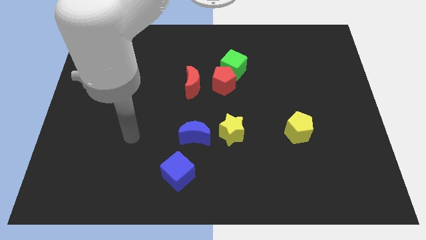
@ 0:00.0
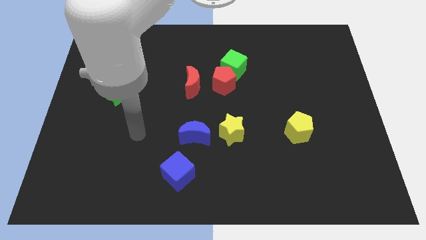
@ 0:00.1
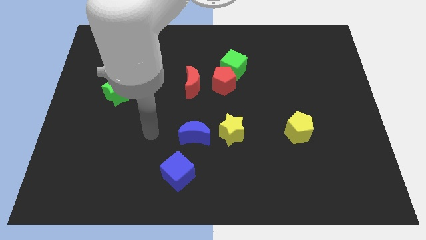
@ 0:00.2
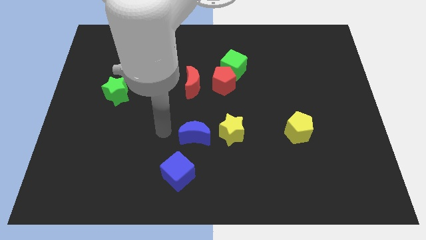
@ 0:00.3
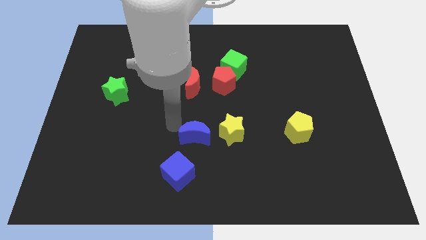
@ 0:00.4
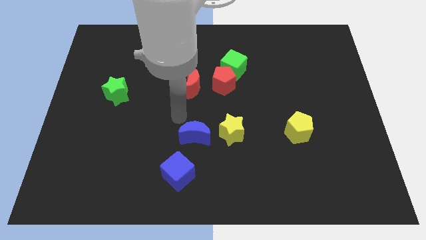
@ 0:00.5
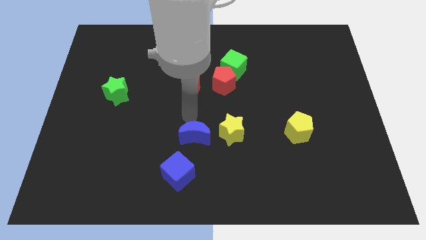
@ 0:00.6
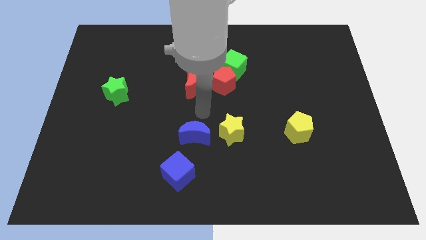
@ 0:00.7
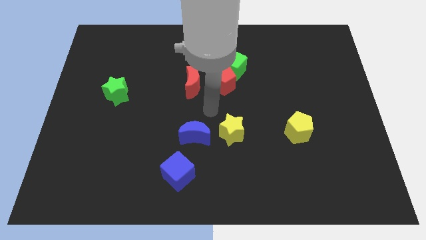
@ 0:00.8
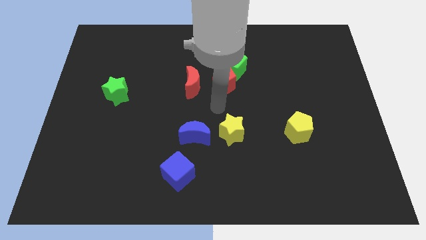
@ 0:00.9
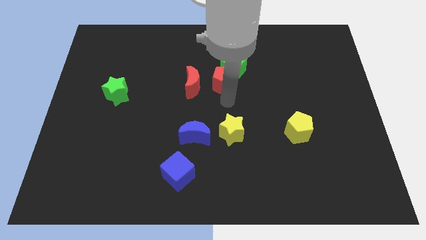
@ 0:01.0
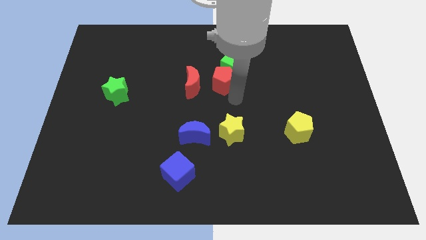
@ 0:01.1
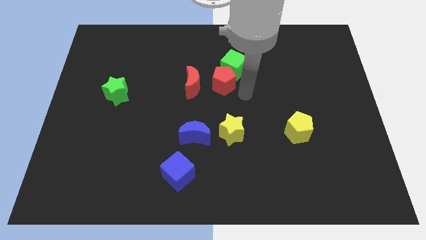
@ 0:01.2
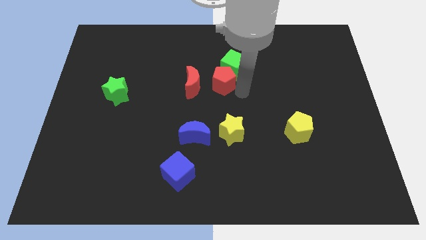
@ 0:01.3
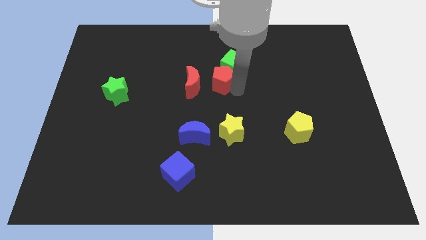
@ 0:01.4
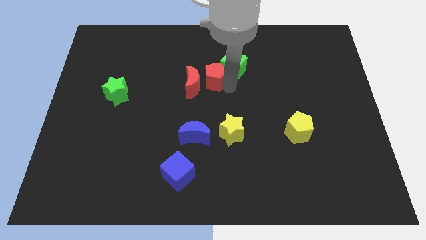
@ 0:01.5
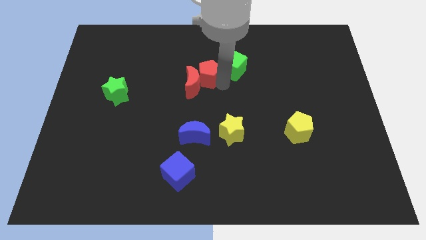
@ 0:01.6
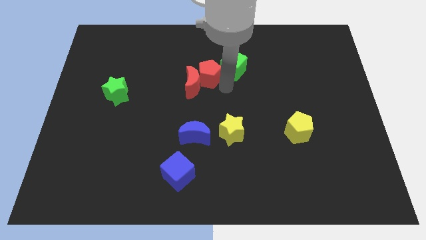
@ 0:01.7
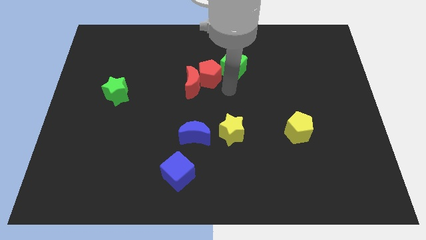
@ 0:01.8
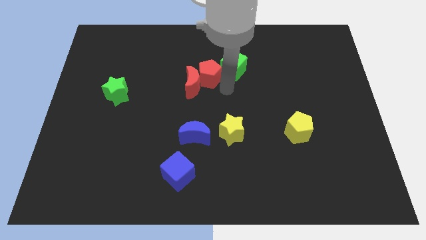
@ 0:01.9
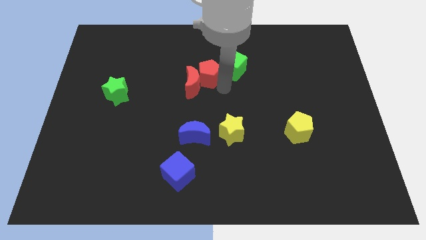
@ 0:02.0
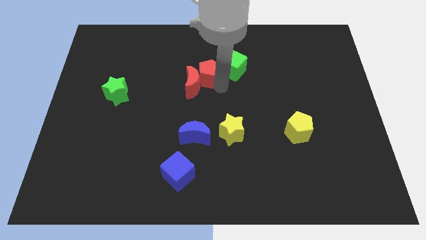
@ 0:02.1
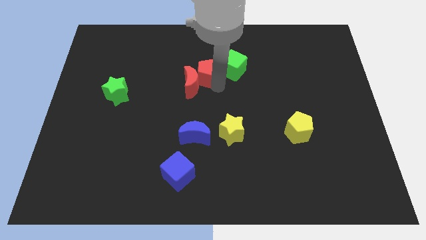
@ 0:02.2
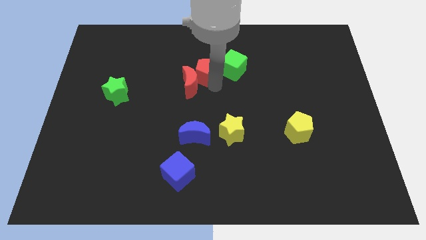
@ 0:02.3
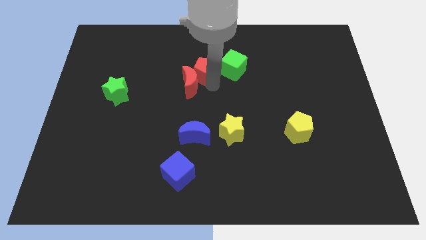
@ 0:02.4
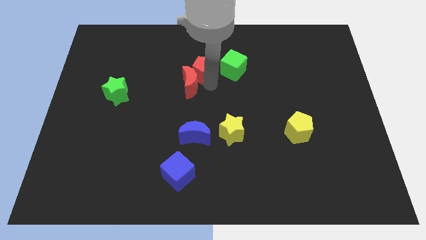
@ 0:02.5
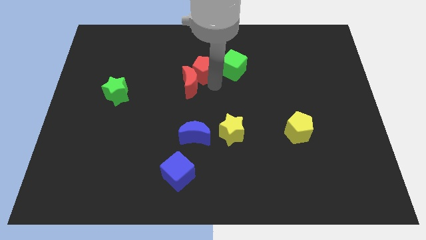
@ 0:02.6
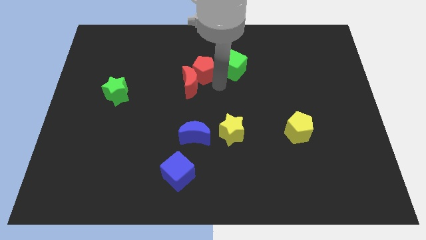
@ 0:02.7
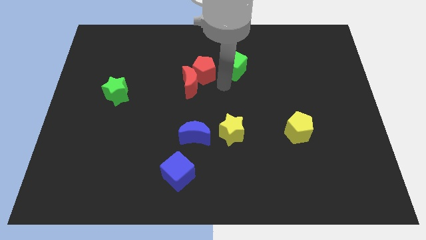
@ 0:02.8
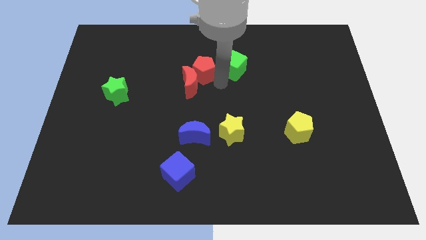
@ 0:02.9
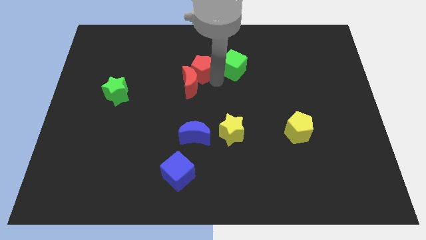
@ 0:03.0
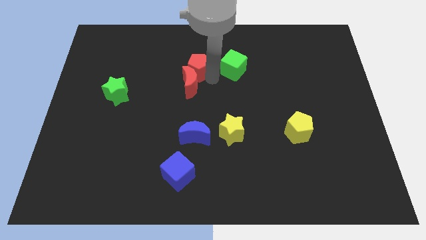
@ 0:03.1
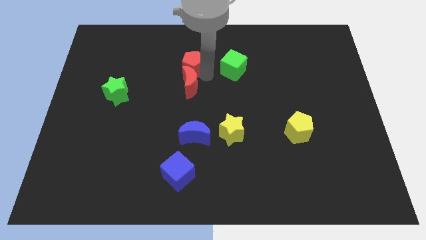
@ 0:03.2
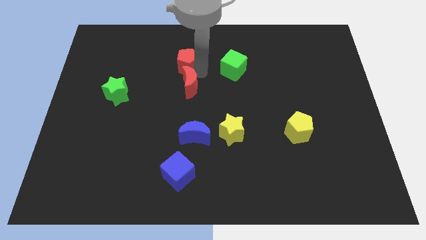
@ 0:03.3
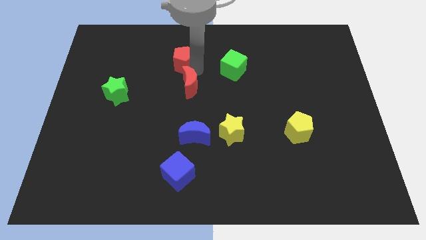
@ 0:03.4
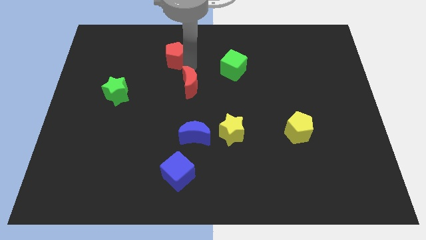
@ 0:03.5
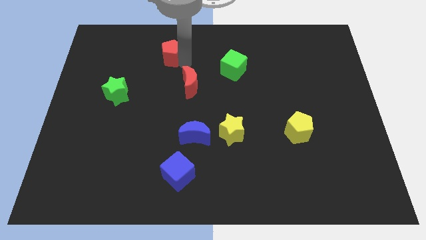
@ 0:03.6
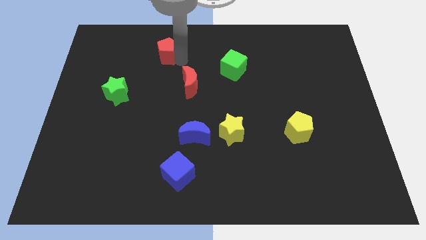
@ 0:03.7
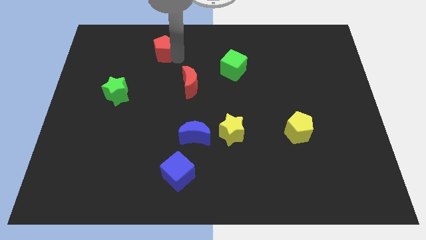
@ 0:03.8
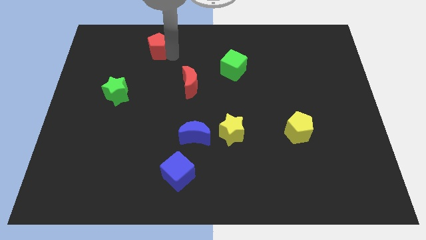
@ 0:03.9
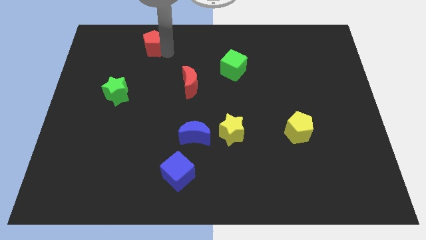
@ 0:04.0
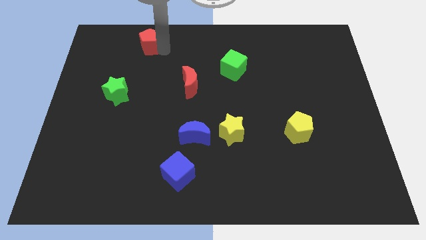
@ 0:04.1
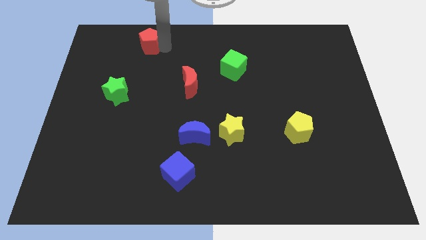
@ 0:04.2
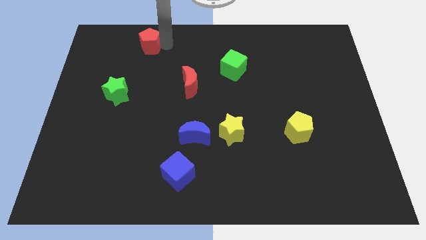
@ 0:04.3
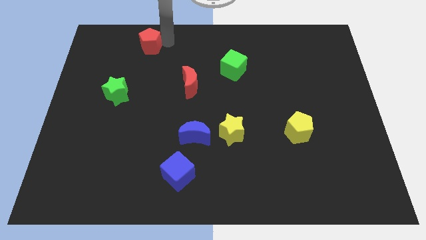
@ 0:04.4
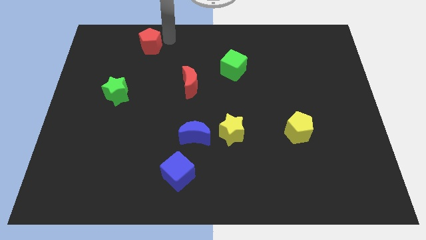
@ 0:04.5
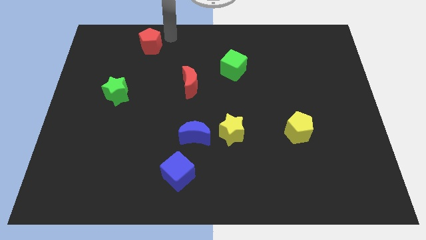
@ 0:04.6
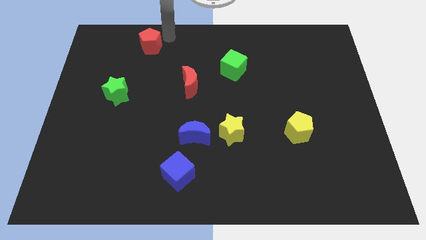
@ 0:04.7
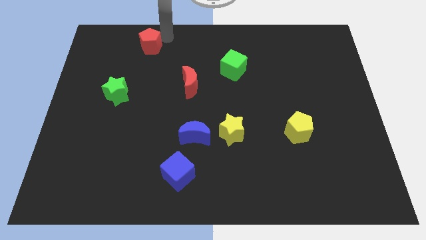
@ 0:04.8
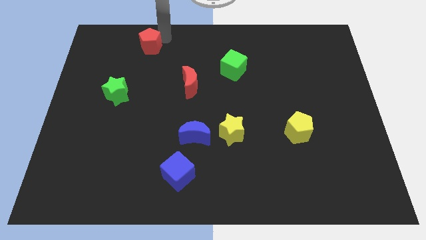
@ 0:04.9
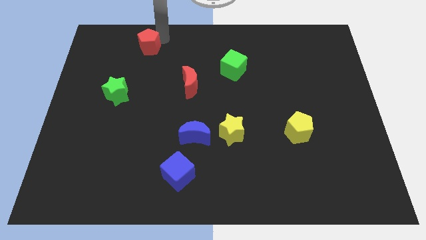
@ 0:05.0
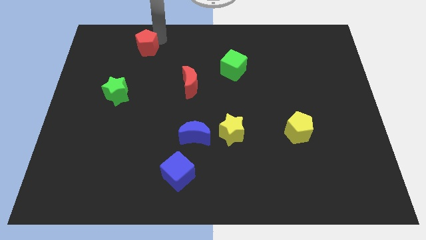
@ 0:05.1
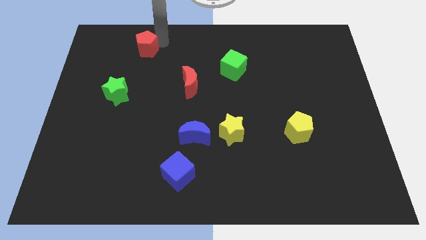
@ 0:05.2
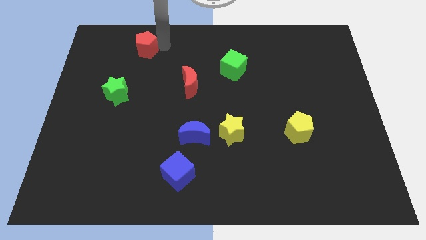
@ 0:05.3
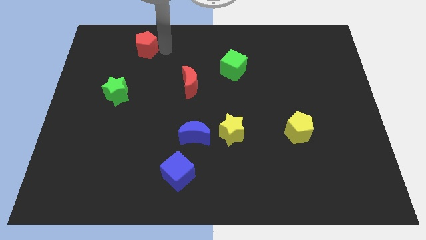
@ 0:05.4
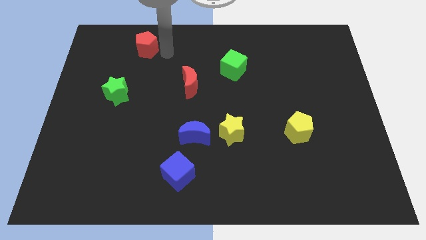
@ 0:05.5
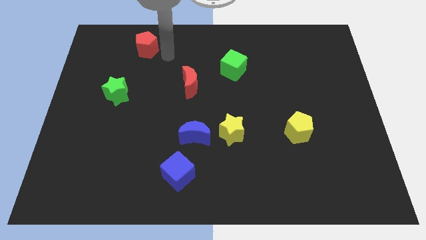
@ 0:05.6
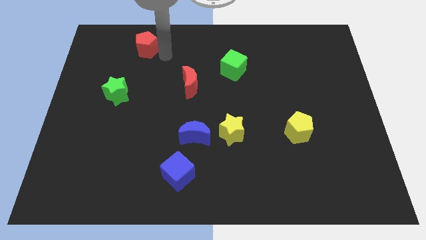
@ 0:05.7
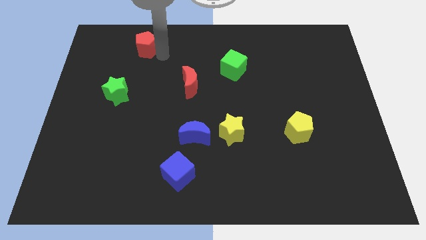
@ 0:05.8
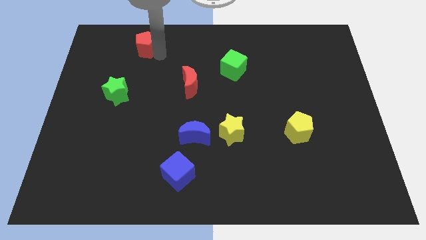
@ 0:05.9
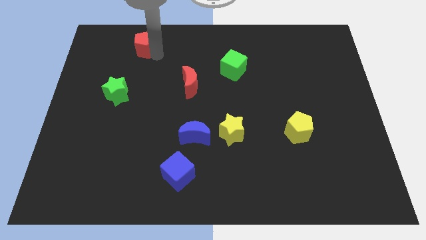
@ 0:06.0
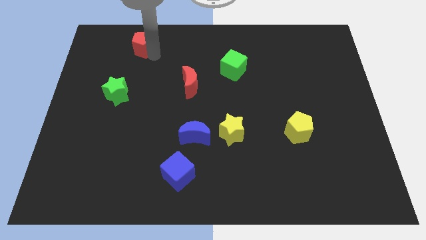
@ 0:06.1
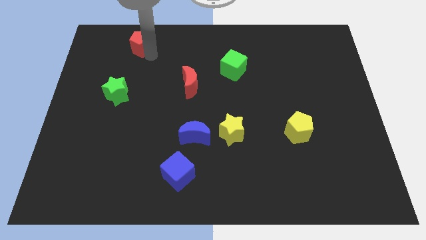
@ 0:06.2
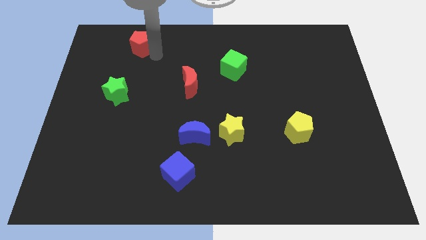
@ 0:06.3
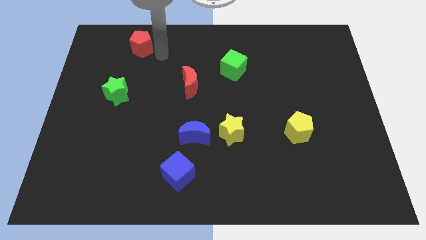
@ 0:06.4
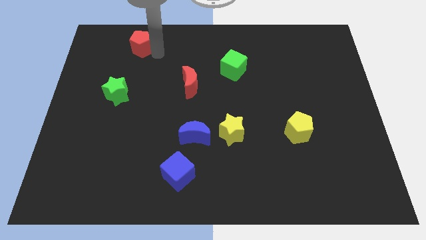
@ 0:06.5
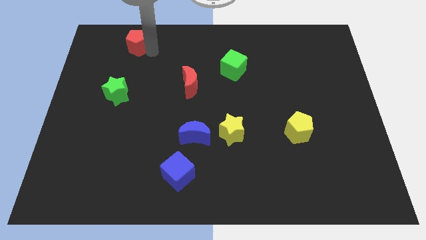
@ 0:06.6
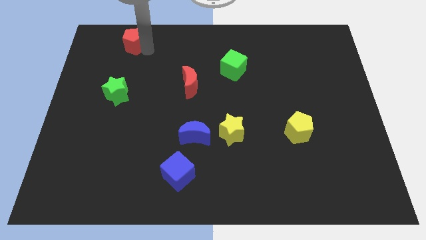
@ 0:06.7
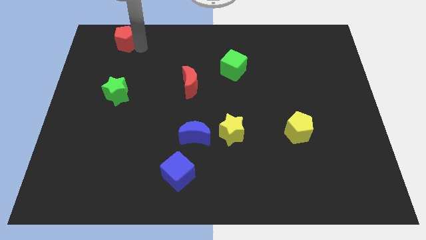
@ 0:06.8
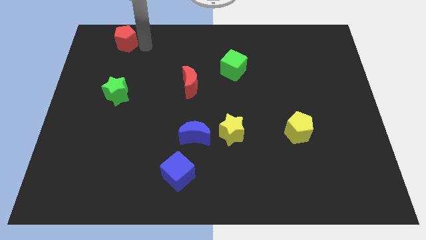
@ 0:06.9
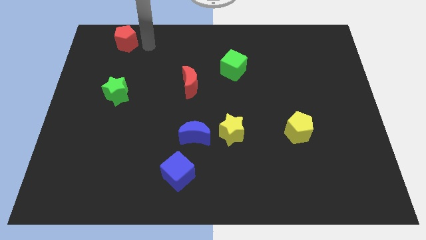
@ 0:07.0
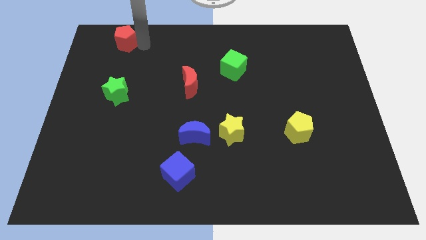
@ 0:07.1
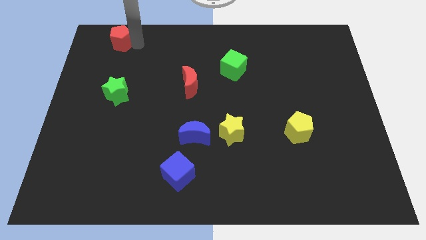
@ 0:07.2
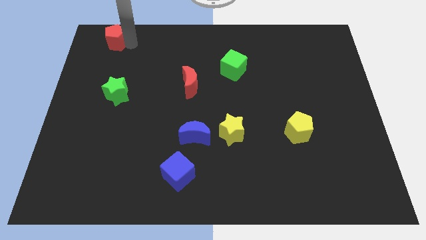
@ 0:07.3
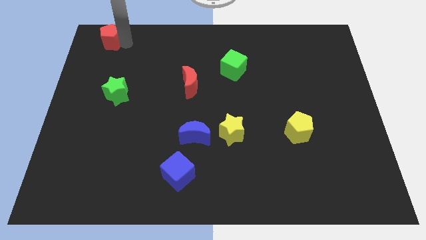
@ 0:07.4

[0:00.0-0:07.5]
move the red pentagon to the top left corner

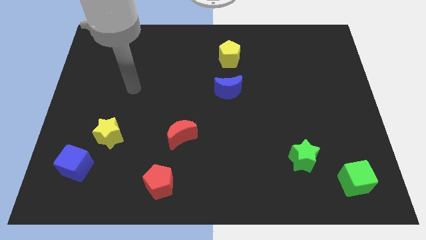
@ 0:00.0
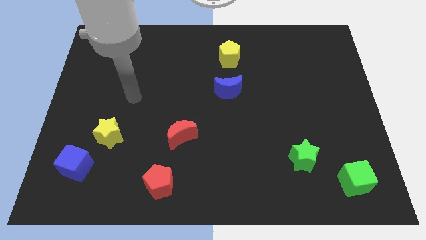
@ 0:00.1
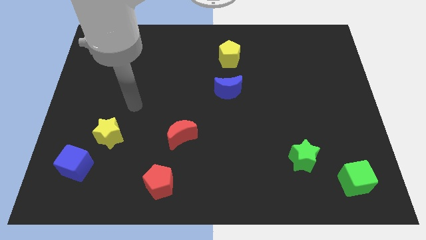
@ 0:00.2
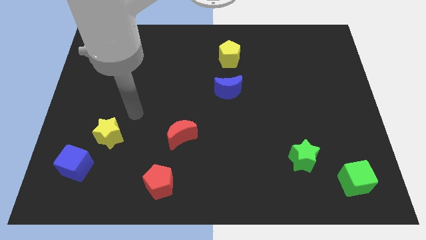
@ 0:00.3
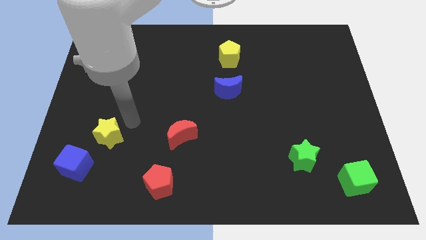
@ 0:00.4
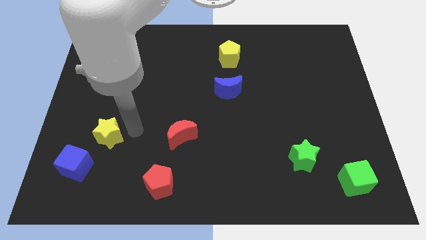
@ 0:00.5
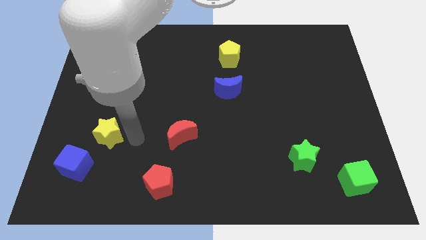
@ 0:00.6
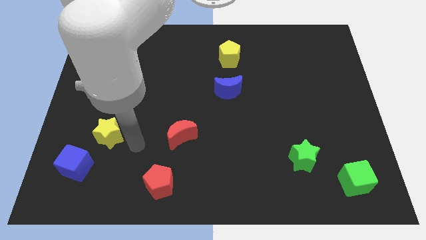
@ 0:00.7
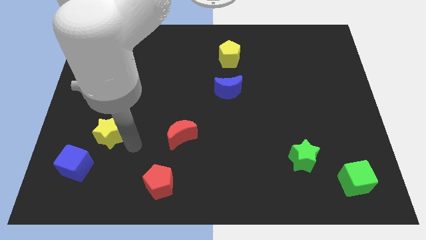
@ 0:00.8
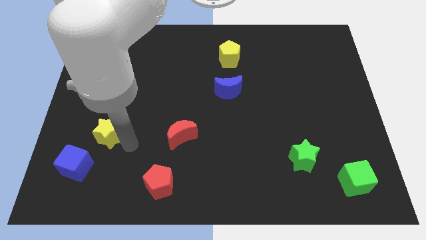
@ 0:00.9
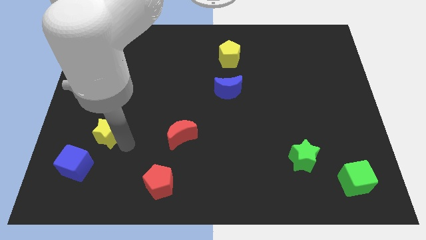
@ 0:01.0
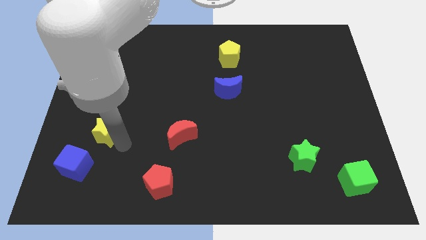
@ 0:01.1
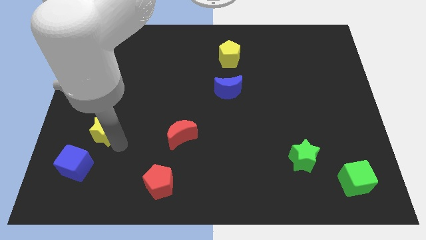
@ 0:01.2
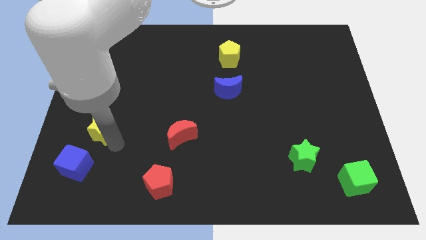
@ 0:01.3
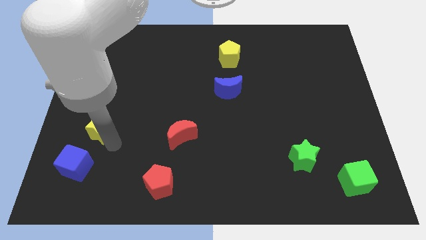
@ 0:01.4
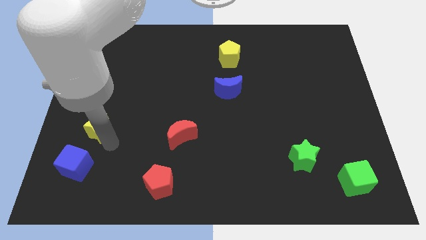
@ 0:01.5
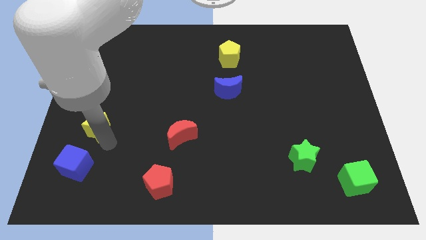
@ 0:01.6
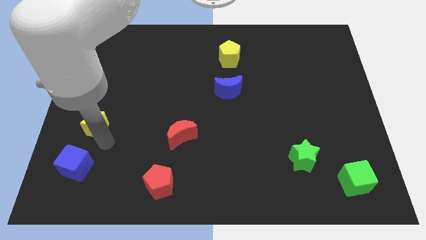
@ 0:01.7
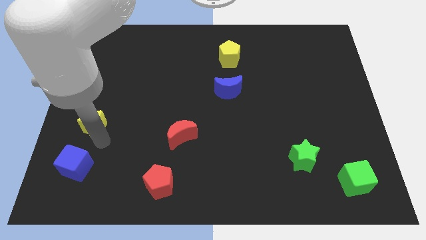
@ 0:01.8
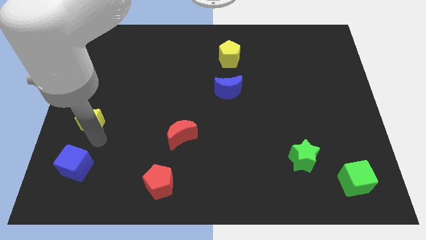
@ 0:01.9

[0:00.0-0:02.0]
move the yellow star to the left side
